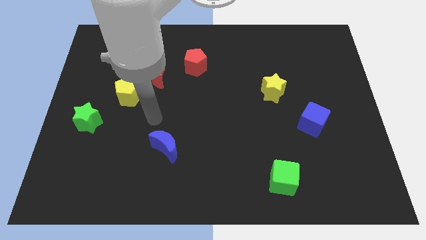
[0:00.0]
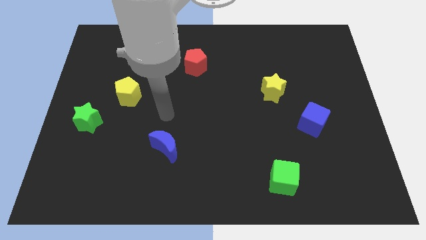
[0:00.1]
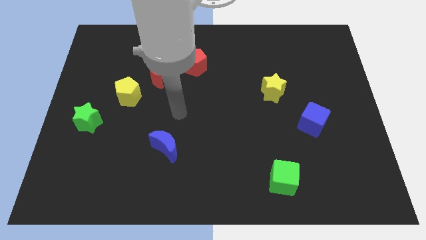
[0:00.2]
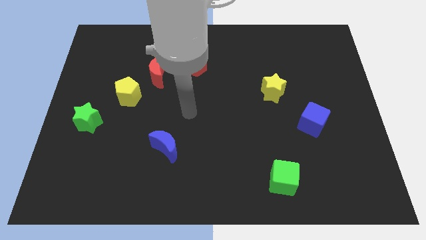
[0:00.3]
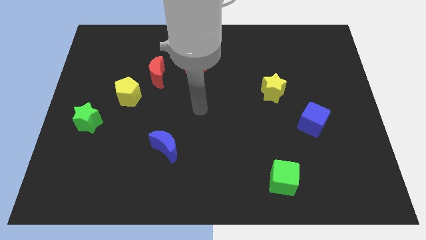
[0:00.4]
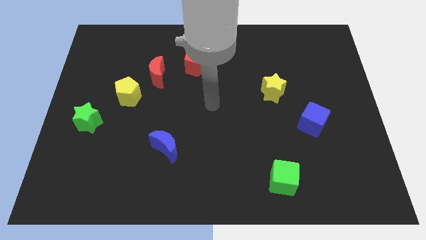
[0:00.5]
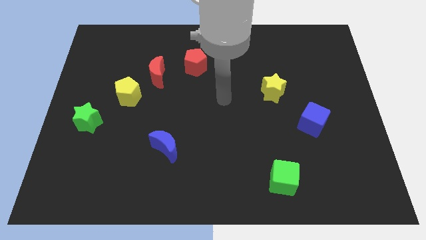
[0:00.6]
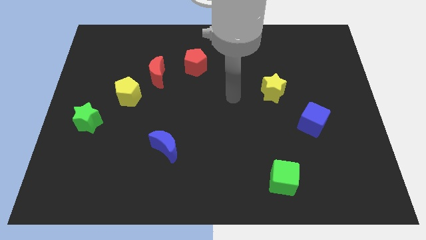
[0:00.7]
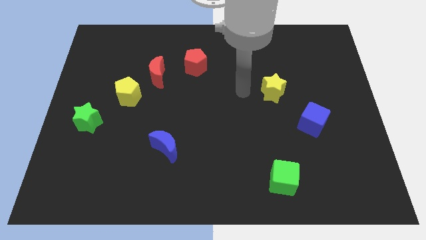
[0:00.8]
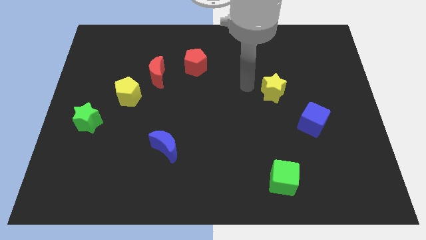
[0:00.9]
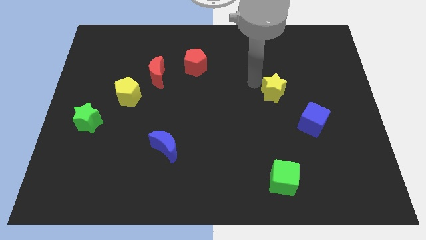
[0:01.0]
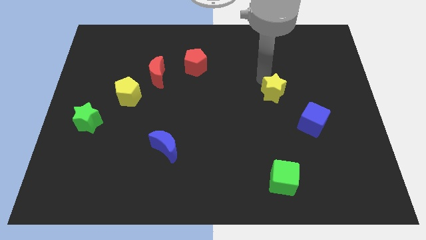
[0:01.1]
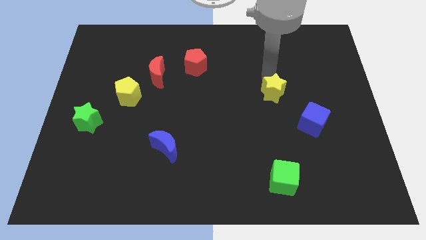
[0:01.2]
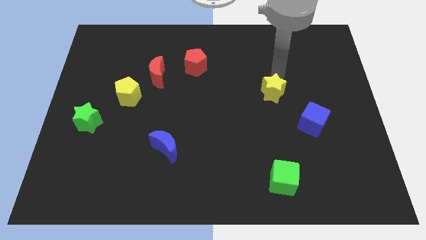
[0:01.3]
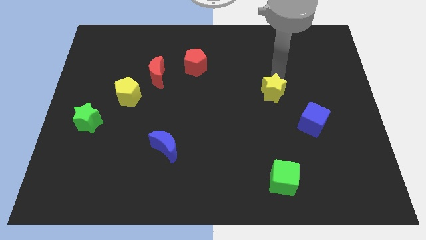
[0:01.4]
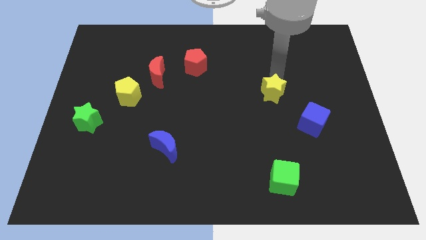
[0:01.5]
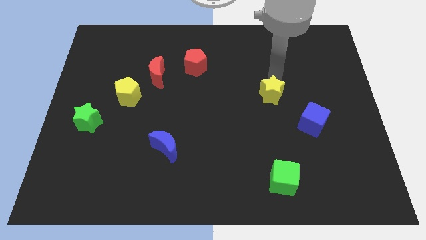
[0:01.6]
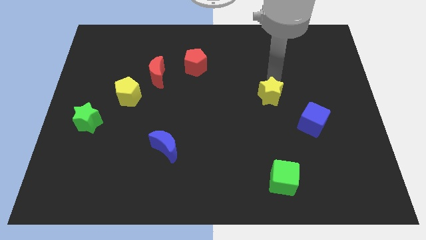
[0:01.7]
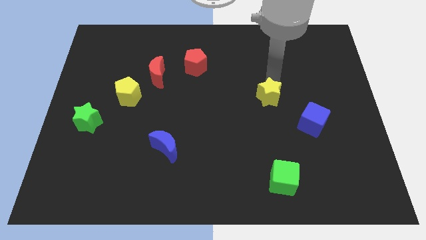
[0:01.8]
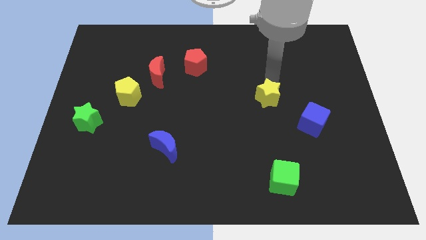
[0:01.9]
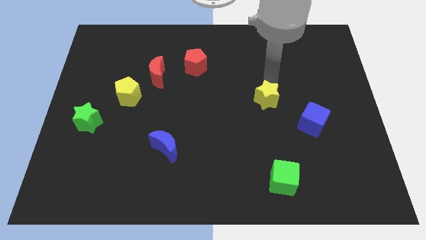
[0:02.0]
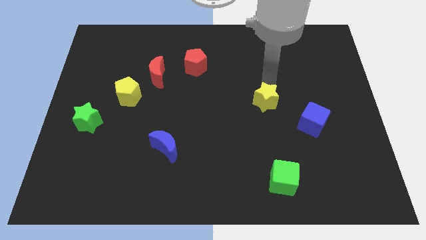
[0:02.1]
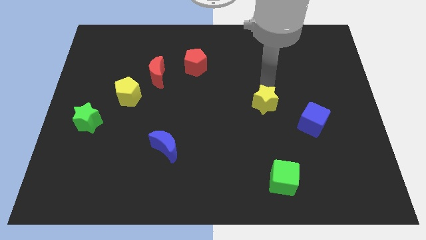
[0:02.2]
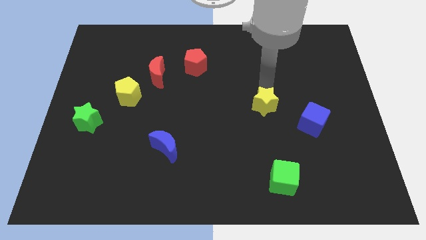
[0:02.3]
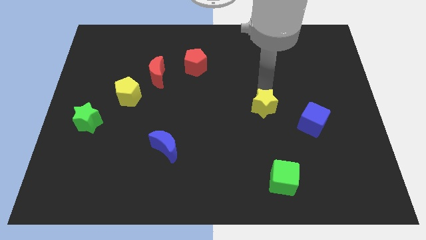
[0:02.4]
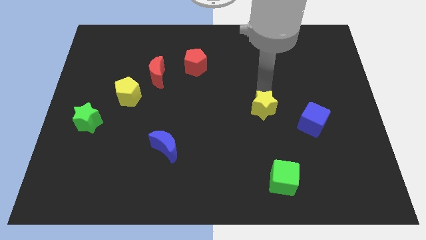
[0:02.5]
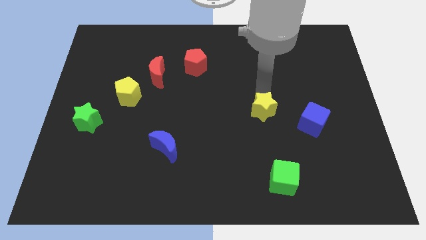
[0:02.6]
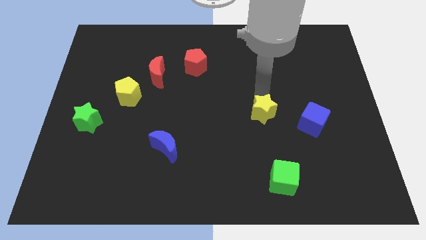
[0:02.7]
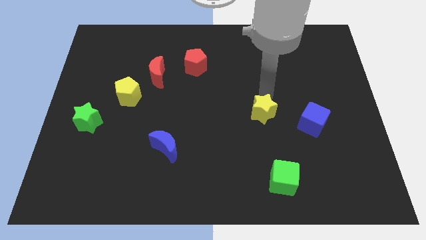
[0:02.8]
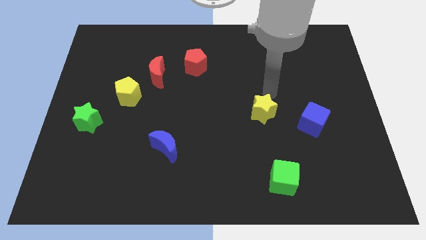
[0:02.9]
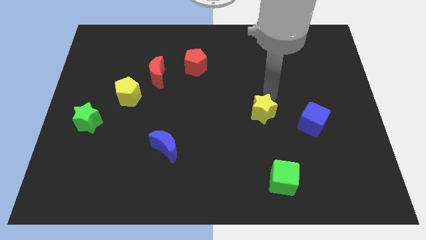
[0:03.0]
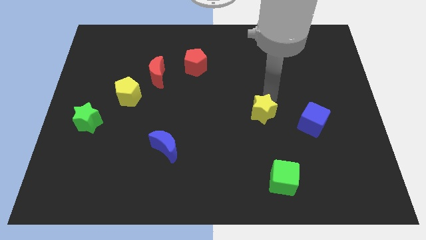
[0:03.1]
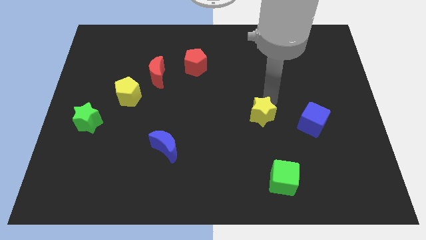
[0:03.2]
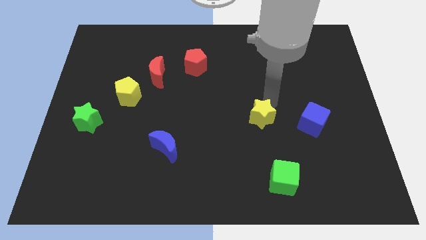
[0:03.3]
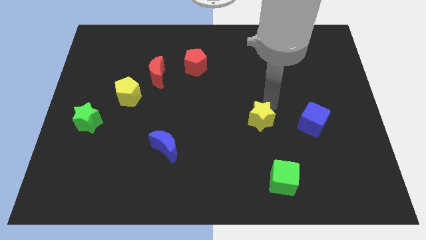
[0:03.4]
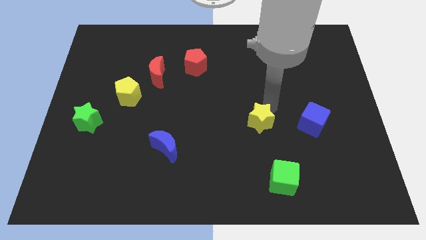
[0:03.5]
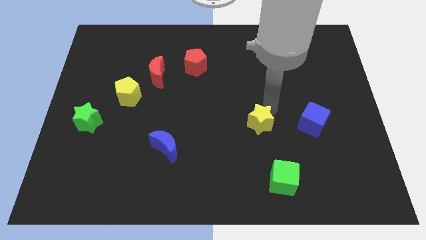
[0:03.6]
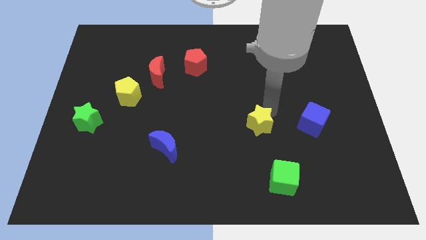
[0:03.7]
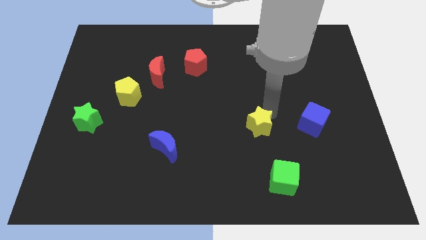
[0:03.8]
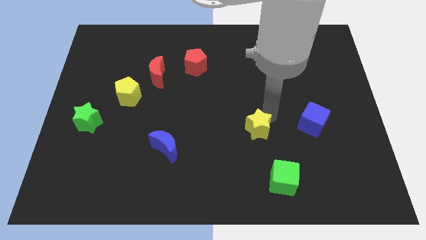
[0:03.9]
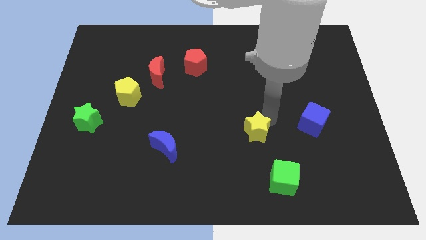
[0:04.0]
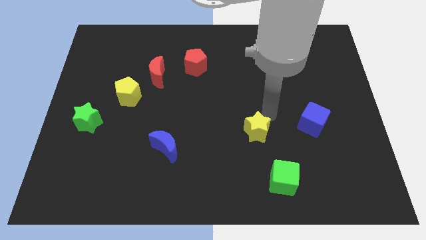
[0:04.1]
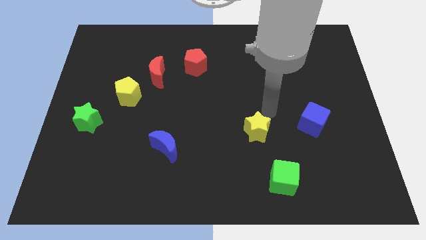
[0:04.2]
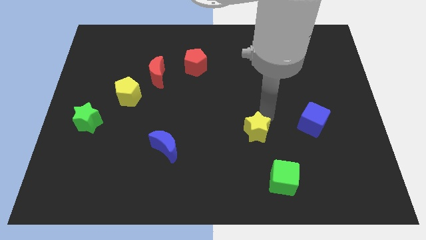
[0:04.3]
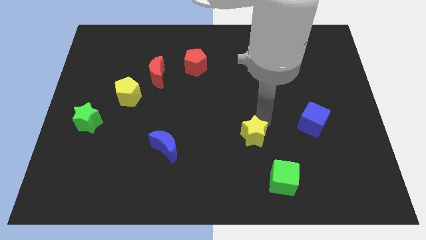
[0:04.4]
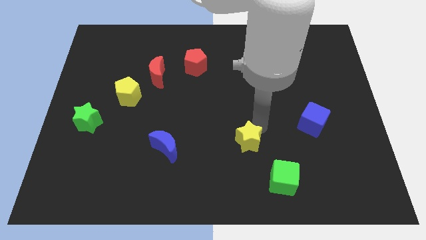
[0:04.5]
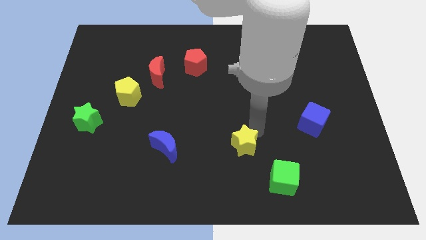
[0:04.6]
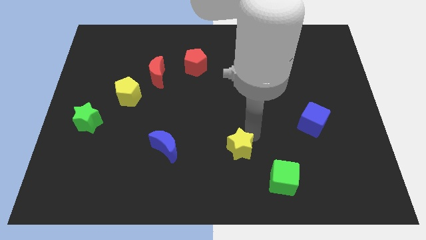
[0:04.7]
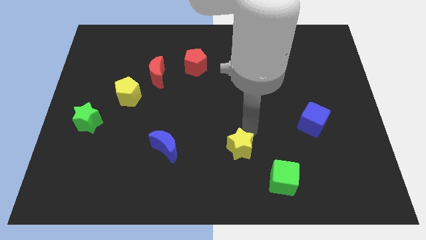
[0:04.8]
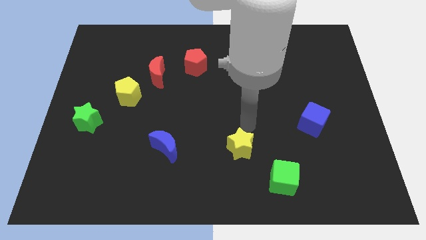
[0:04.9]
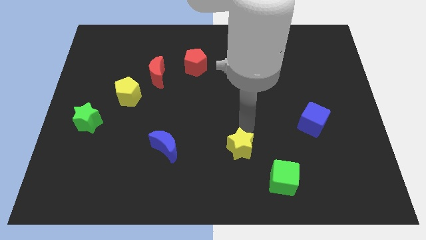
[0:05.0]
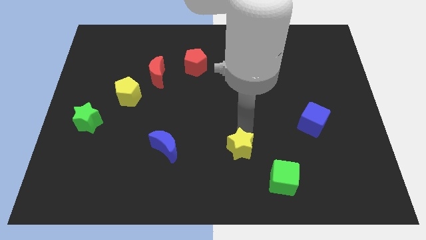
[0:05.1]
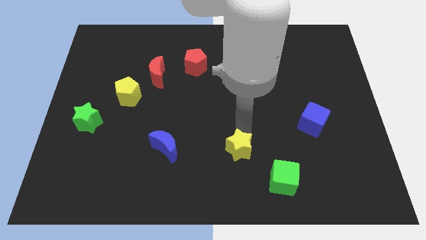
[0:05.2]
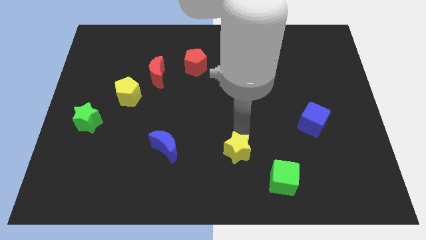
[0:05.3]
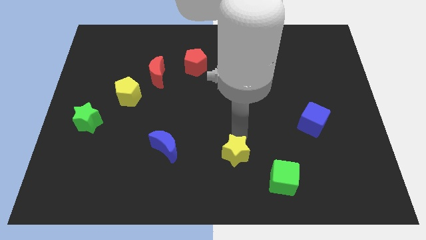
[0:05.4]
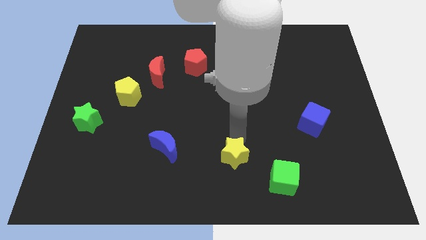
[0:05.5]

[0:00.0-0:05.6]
push the yellow star to the bottom
